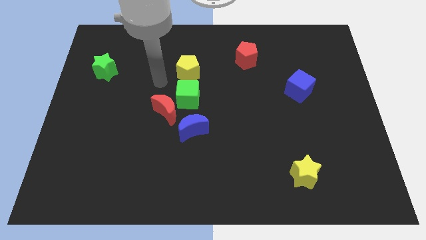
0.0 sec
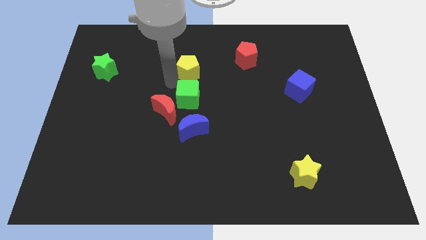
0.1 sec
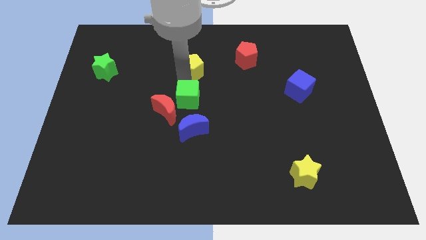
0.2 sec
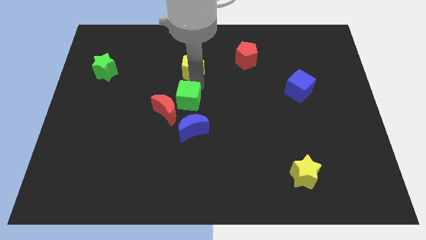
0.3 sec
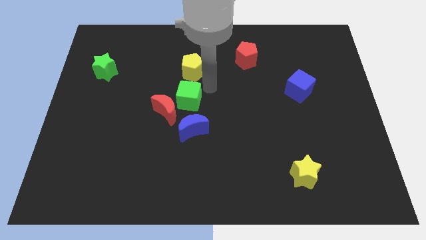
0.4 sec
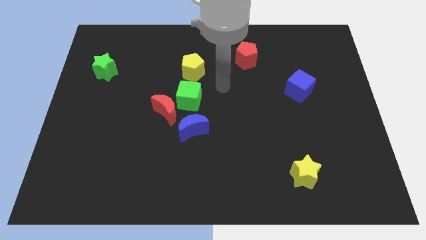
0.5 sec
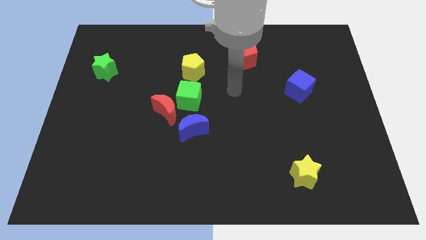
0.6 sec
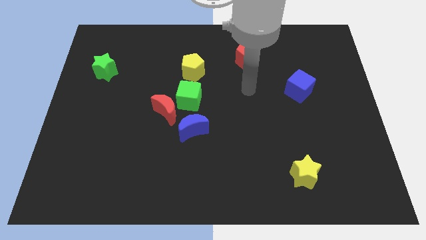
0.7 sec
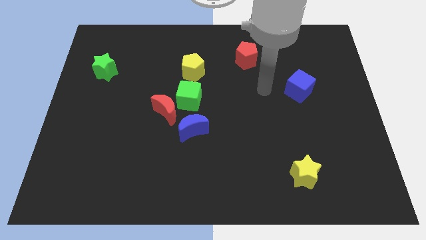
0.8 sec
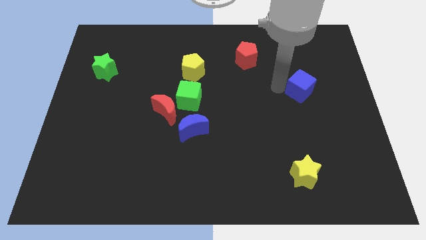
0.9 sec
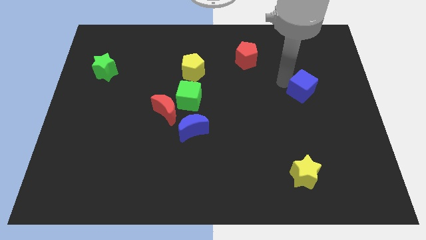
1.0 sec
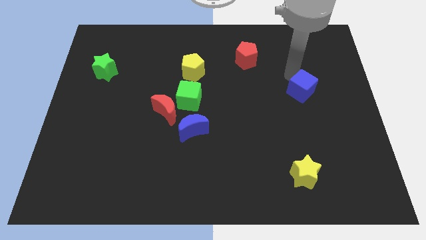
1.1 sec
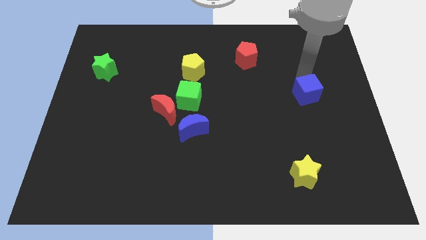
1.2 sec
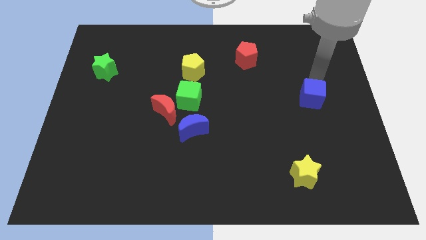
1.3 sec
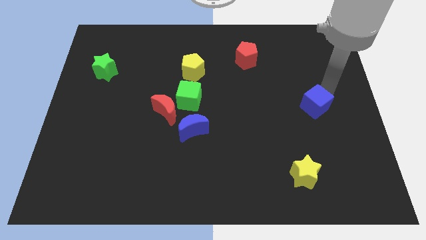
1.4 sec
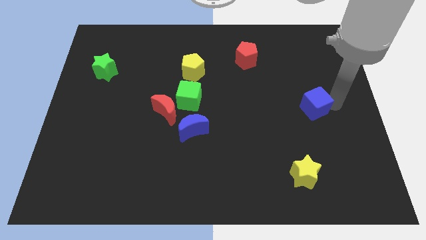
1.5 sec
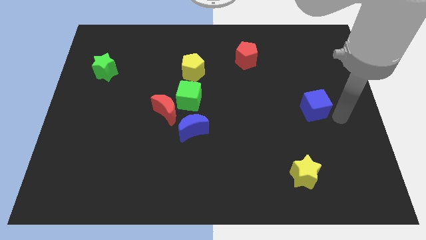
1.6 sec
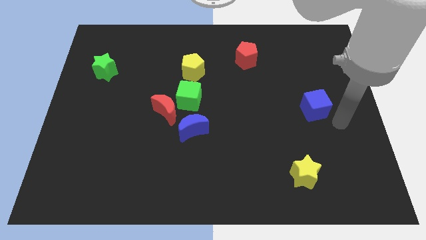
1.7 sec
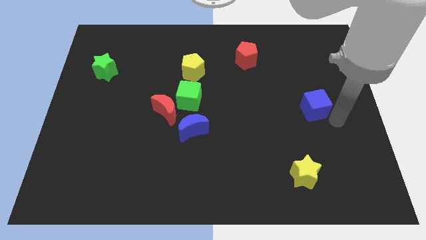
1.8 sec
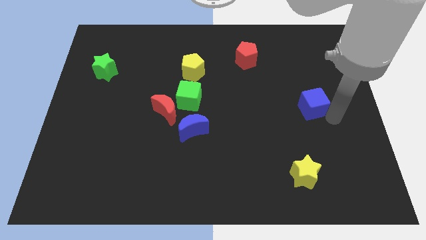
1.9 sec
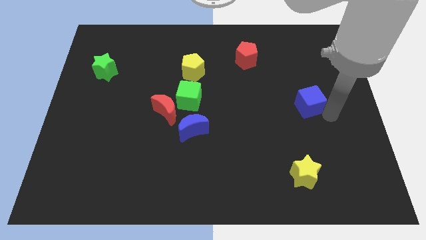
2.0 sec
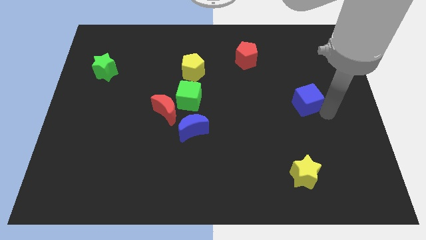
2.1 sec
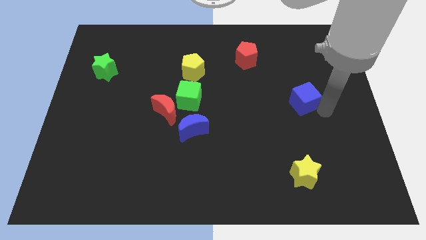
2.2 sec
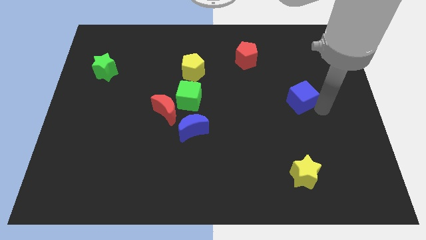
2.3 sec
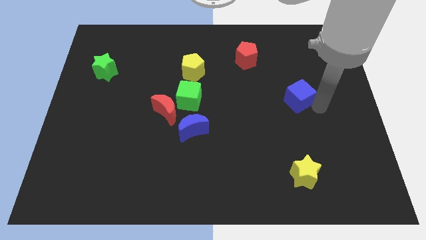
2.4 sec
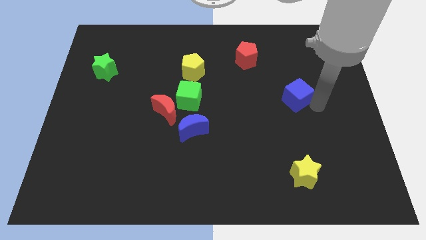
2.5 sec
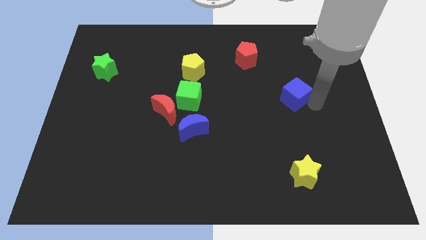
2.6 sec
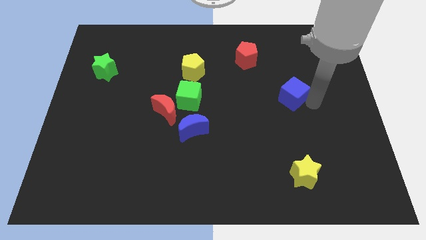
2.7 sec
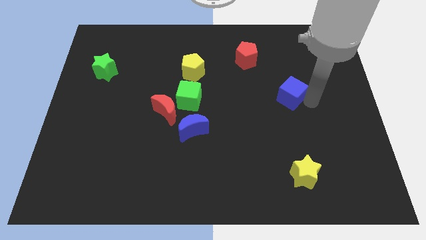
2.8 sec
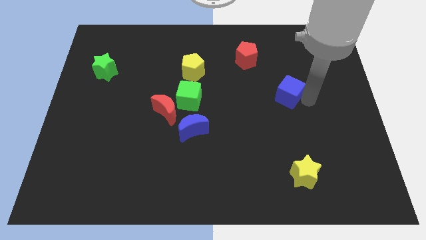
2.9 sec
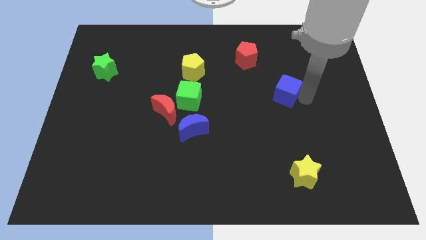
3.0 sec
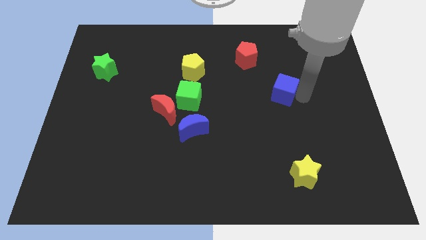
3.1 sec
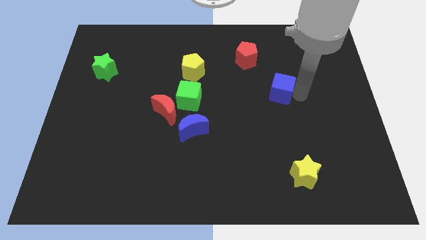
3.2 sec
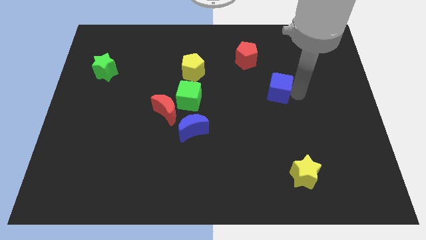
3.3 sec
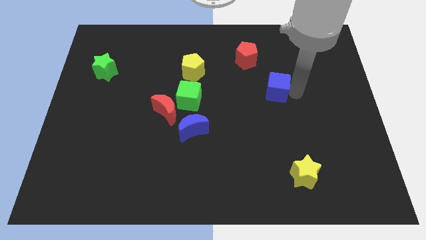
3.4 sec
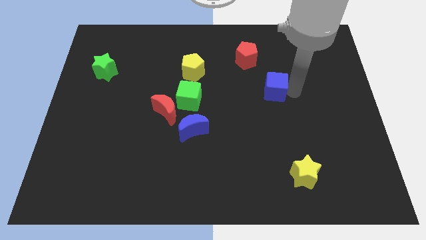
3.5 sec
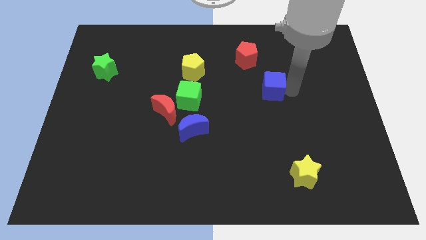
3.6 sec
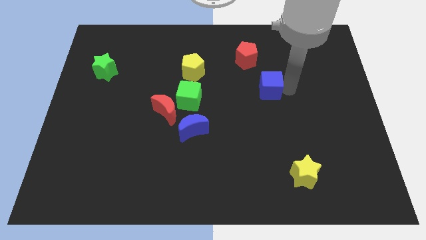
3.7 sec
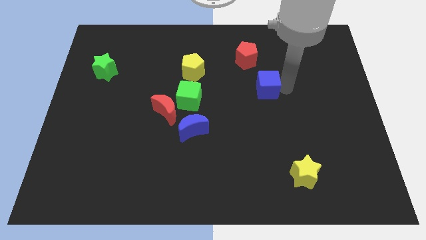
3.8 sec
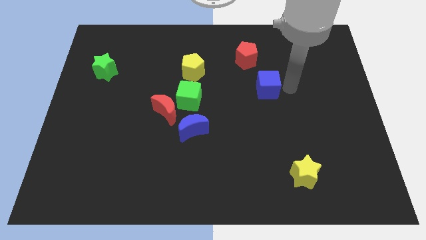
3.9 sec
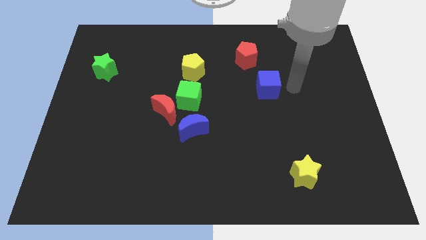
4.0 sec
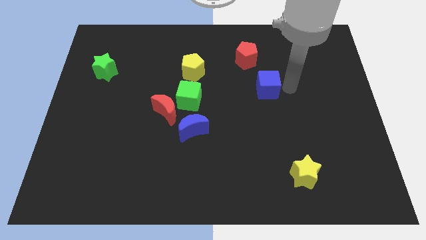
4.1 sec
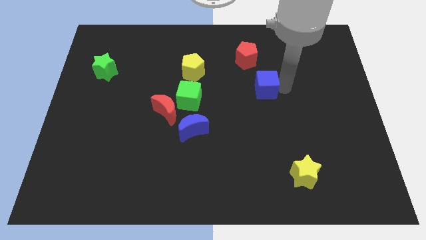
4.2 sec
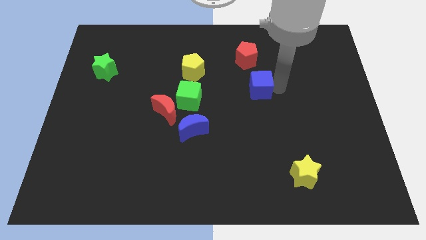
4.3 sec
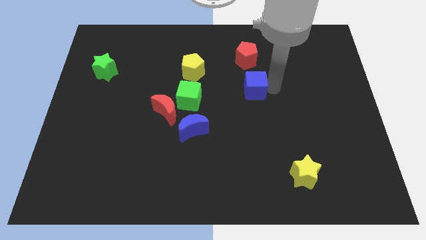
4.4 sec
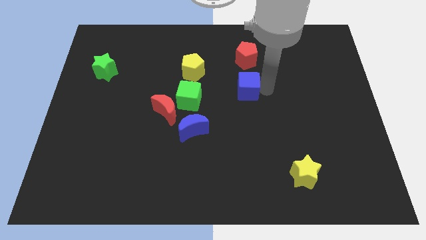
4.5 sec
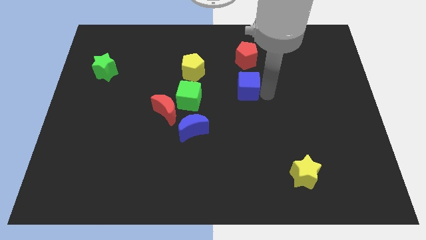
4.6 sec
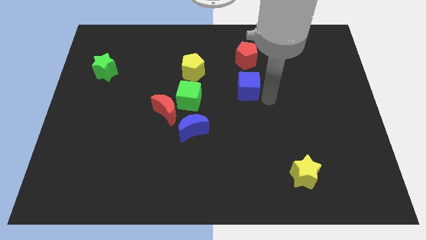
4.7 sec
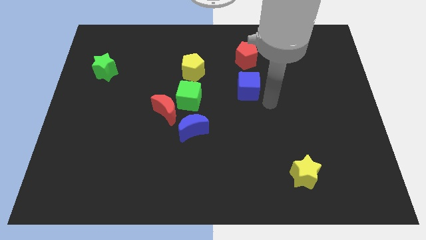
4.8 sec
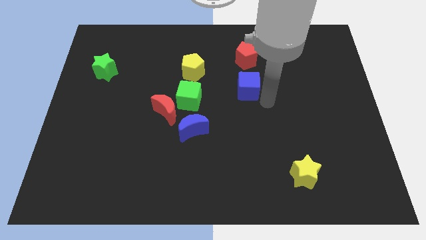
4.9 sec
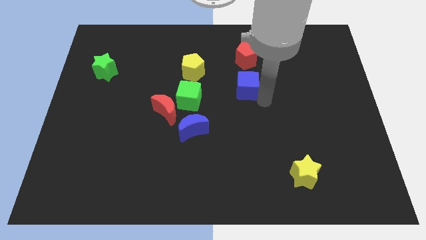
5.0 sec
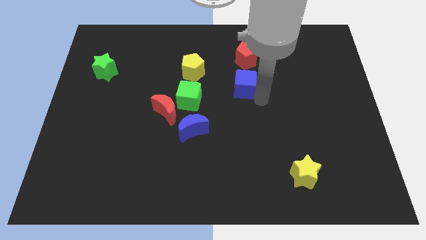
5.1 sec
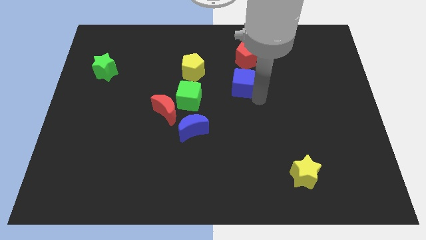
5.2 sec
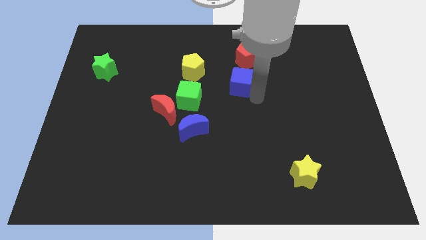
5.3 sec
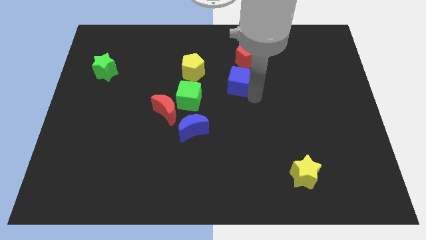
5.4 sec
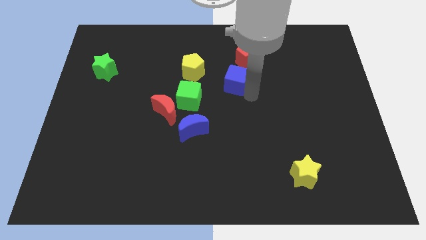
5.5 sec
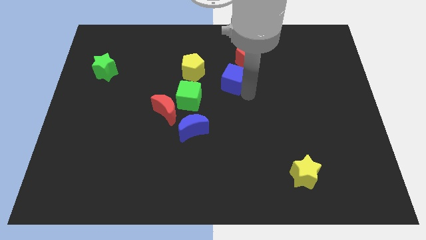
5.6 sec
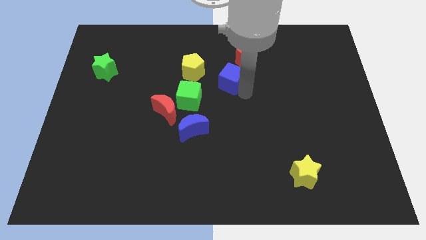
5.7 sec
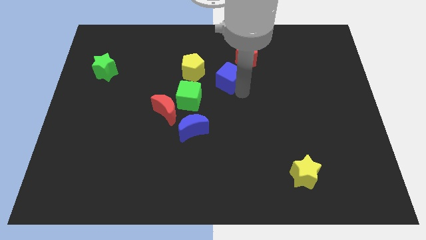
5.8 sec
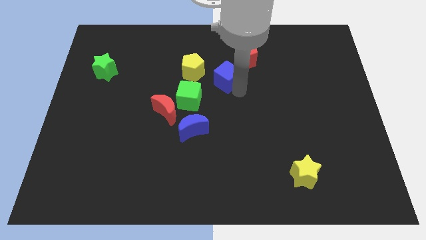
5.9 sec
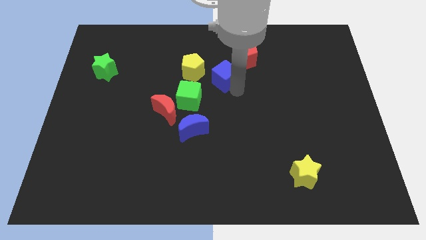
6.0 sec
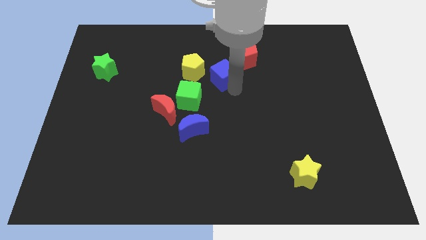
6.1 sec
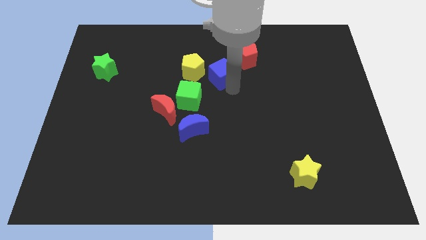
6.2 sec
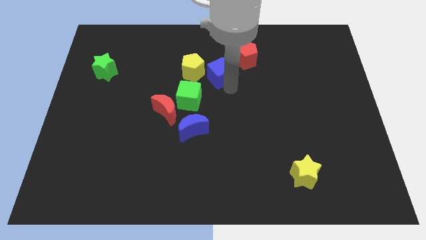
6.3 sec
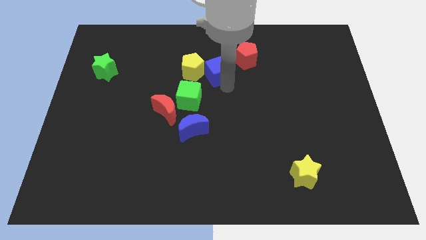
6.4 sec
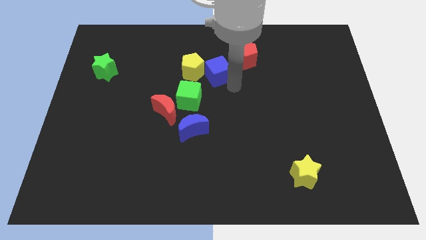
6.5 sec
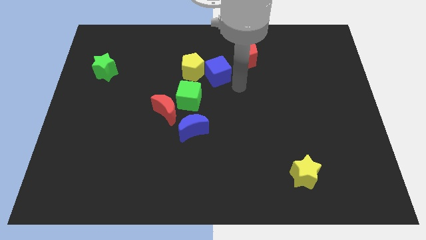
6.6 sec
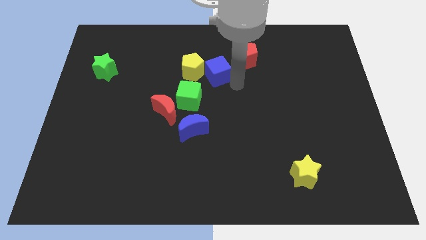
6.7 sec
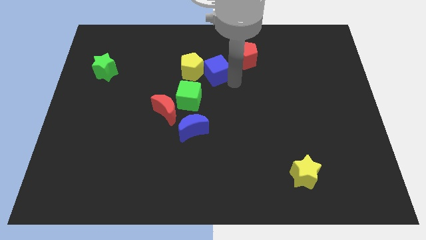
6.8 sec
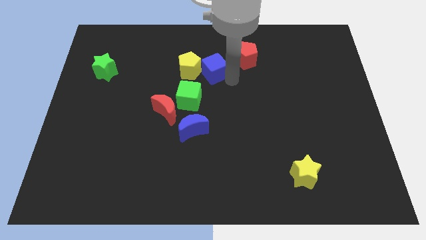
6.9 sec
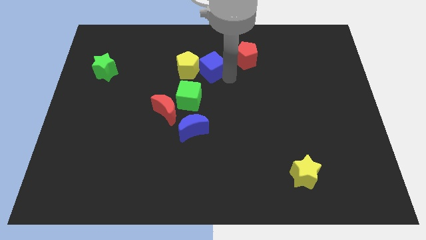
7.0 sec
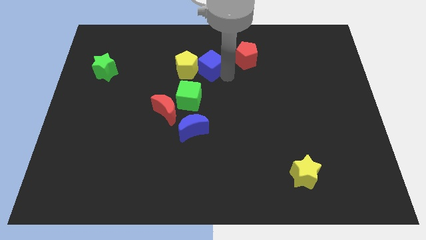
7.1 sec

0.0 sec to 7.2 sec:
push the blue cube left

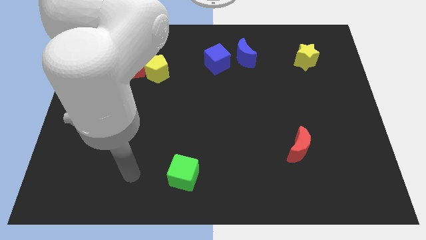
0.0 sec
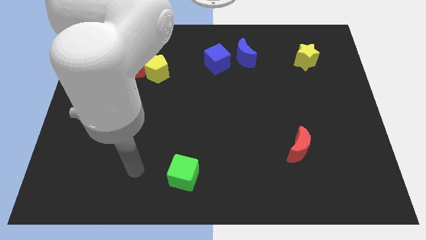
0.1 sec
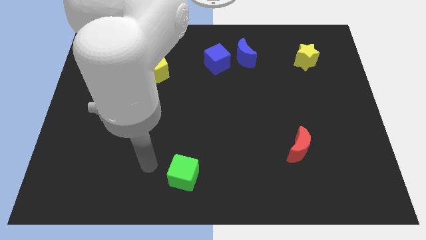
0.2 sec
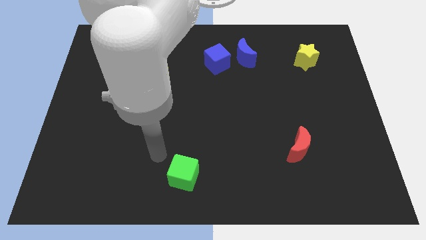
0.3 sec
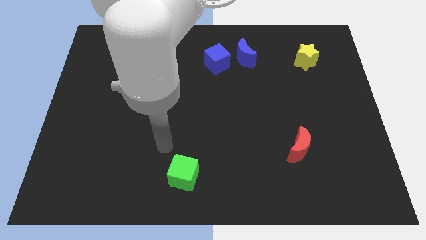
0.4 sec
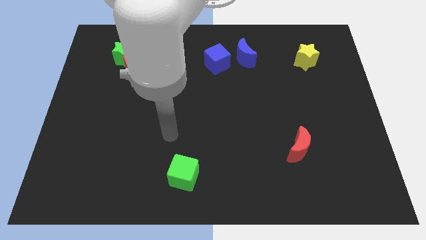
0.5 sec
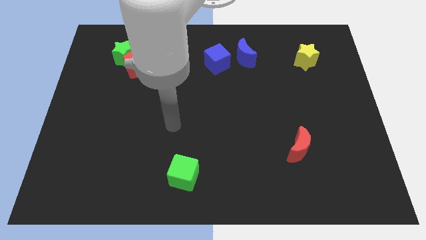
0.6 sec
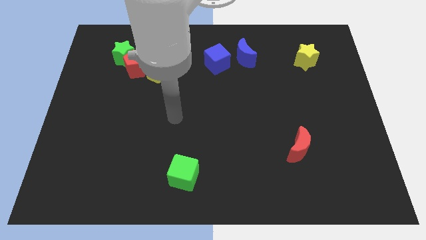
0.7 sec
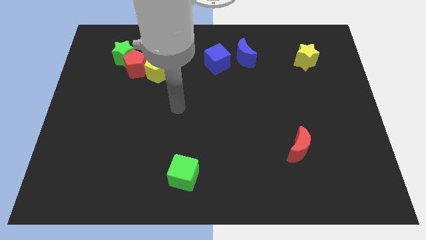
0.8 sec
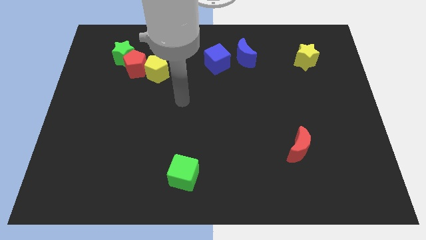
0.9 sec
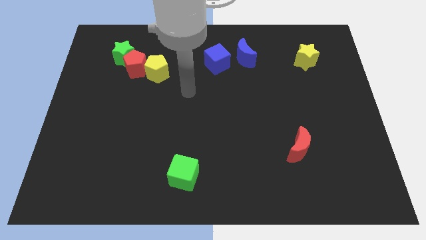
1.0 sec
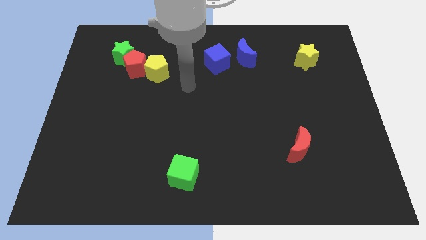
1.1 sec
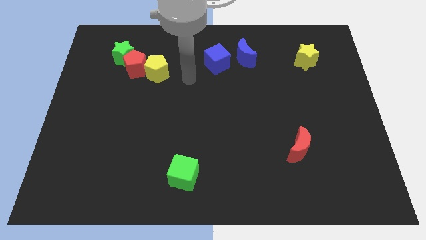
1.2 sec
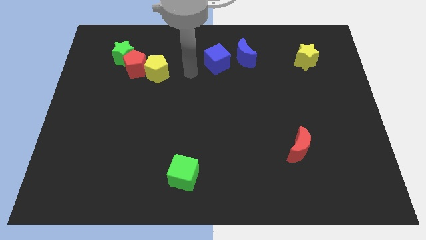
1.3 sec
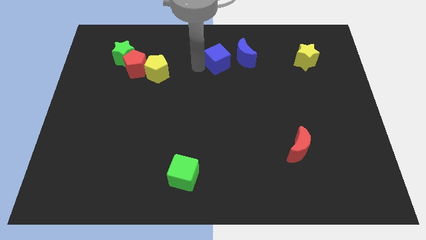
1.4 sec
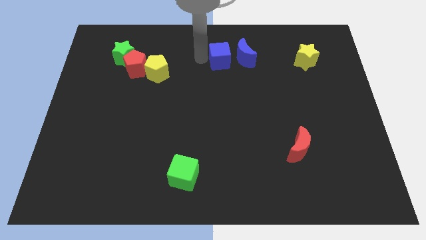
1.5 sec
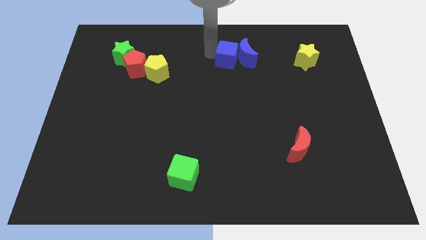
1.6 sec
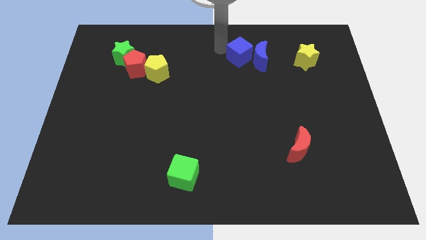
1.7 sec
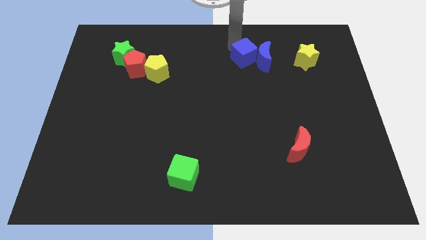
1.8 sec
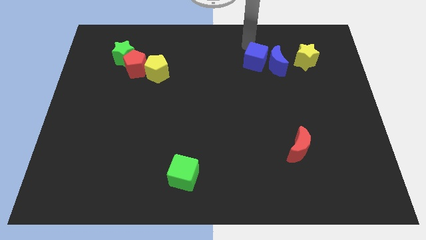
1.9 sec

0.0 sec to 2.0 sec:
slightly move the blue moon down and to the right
